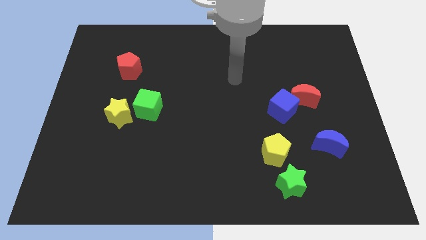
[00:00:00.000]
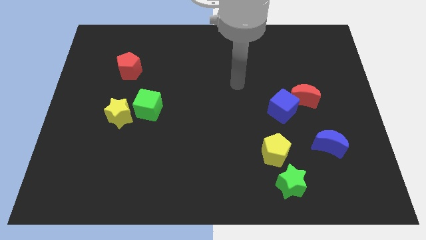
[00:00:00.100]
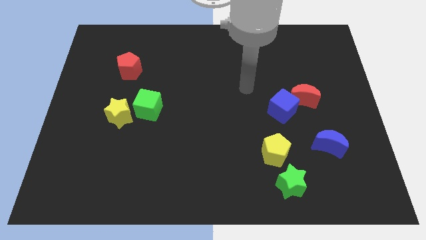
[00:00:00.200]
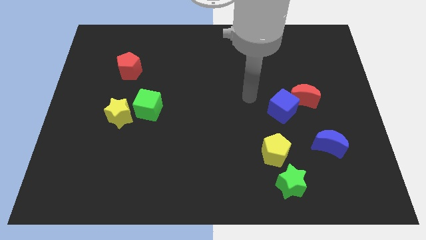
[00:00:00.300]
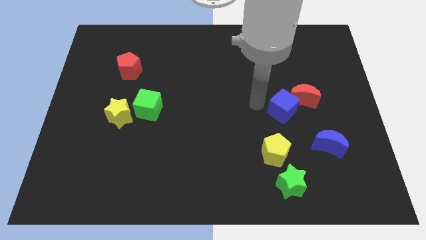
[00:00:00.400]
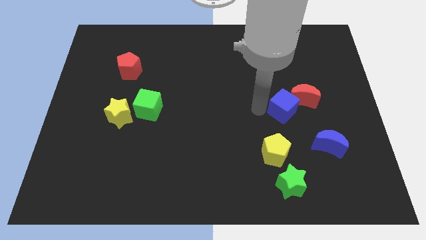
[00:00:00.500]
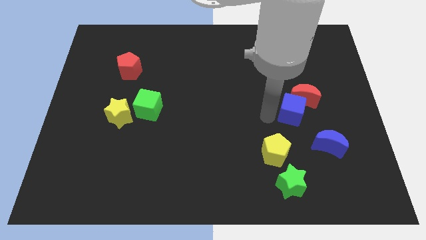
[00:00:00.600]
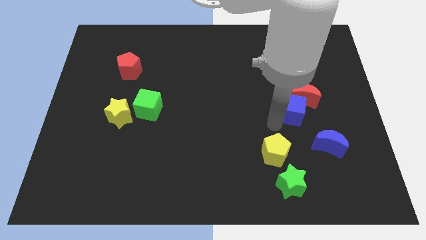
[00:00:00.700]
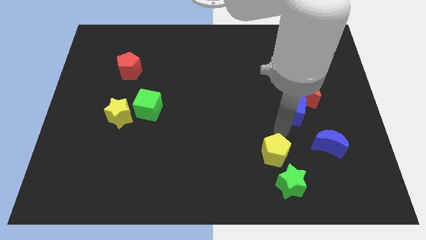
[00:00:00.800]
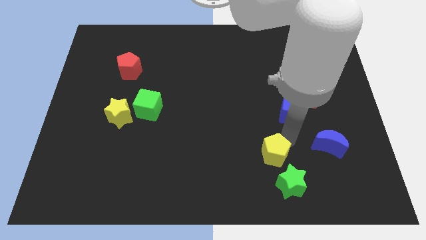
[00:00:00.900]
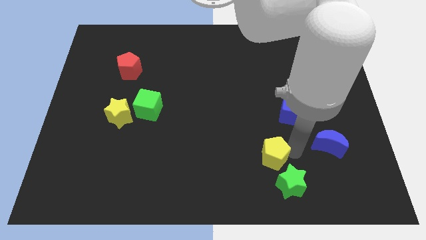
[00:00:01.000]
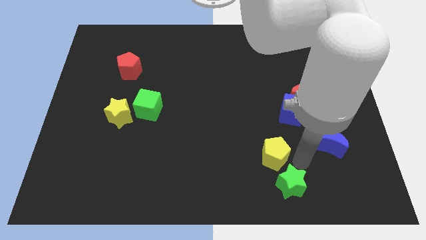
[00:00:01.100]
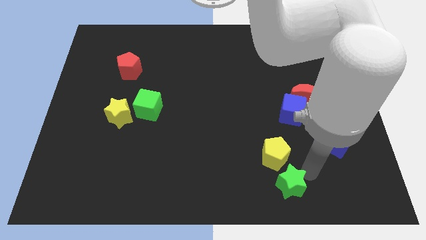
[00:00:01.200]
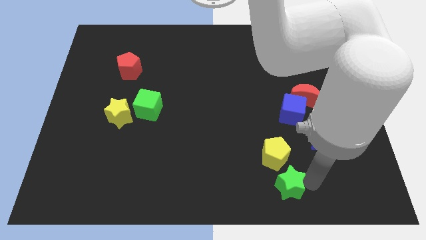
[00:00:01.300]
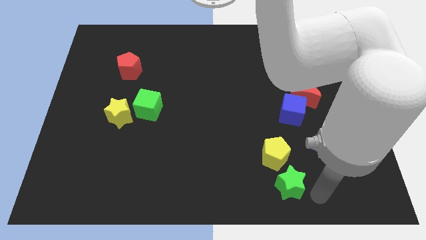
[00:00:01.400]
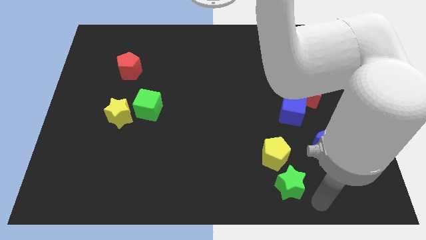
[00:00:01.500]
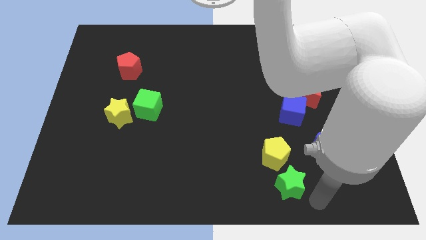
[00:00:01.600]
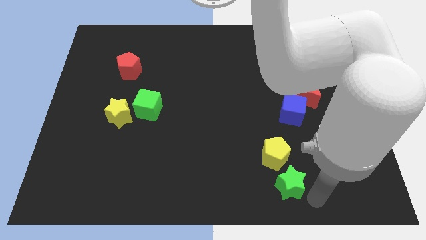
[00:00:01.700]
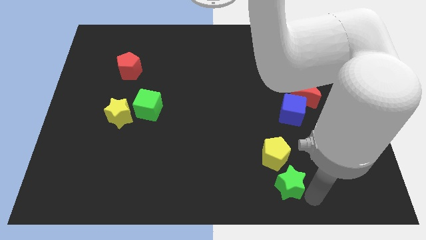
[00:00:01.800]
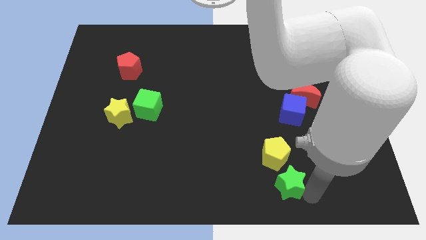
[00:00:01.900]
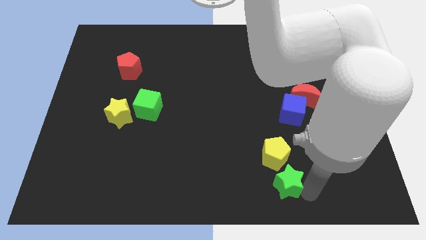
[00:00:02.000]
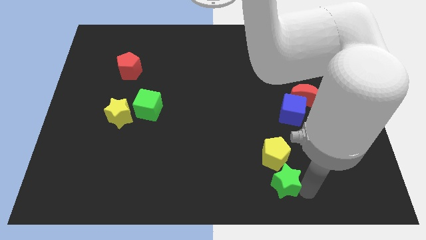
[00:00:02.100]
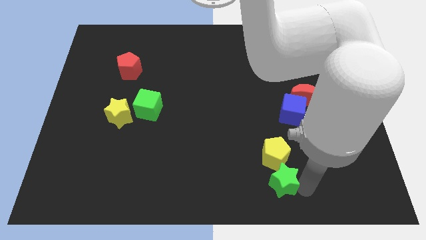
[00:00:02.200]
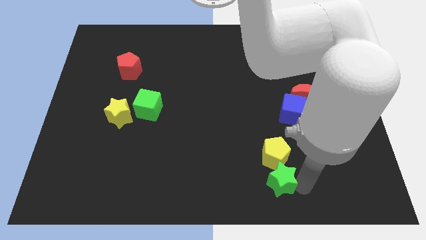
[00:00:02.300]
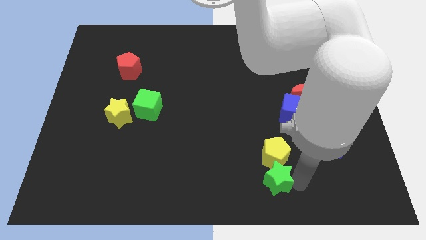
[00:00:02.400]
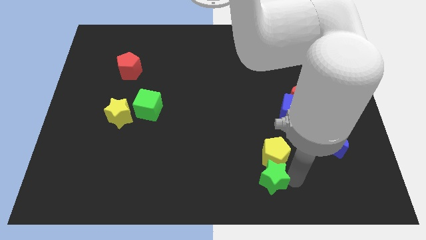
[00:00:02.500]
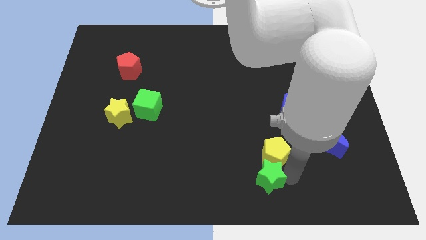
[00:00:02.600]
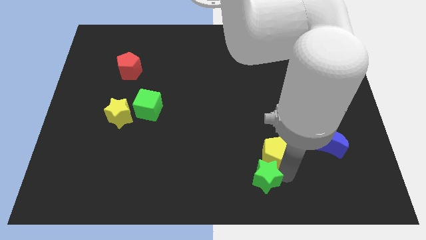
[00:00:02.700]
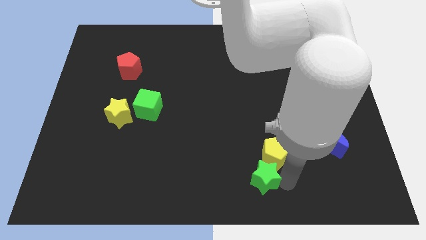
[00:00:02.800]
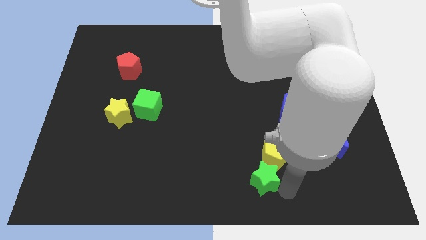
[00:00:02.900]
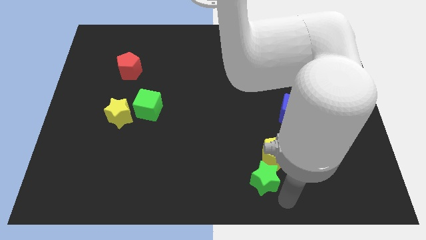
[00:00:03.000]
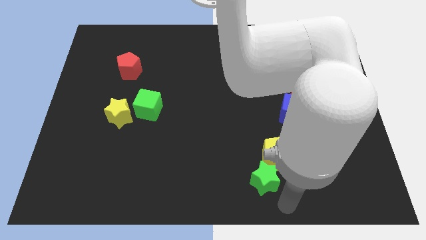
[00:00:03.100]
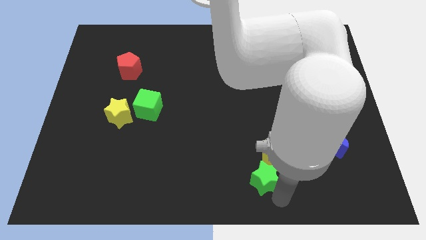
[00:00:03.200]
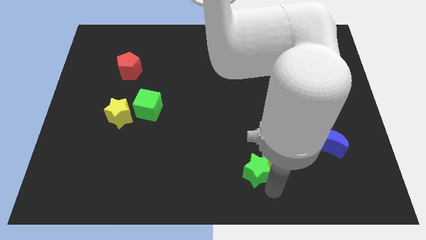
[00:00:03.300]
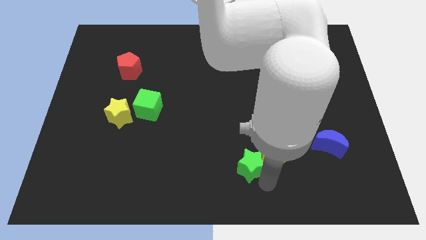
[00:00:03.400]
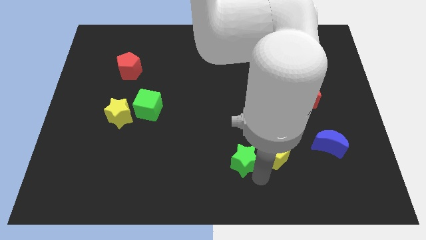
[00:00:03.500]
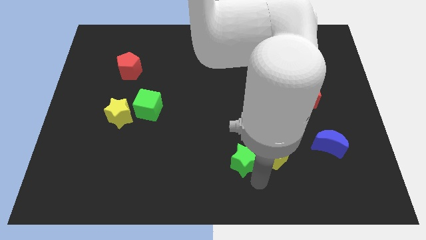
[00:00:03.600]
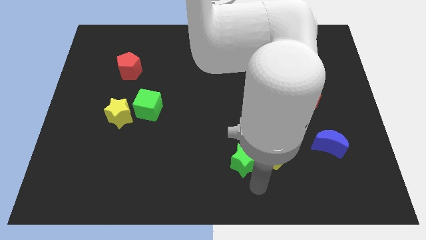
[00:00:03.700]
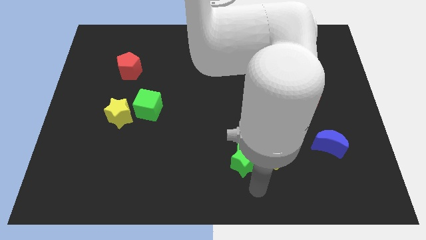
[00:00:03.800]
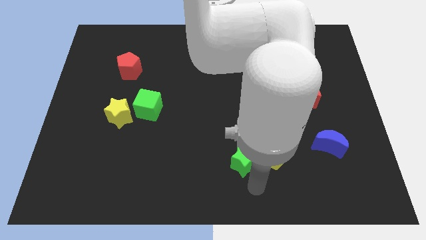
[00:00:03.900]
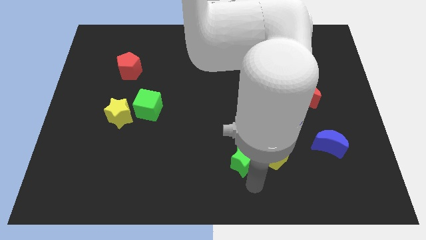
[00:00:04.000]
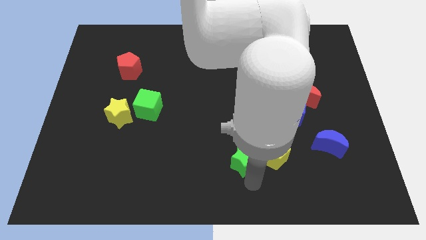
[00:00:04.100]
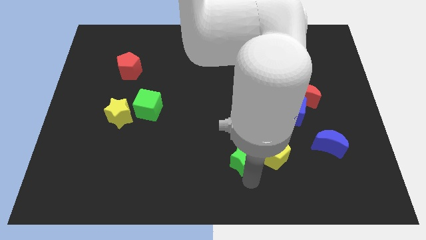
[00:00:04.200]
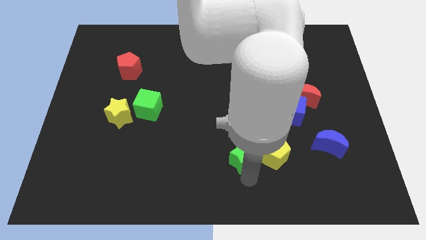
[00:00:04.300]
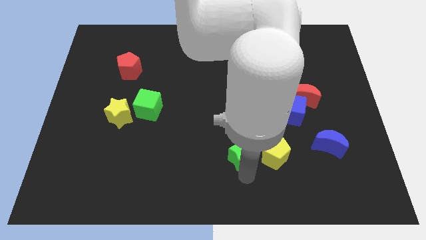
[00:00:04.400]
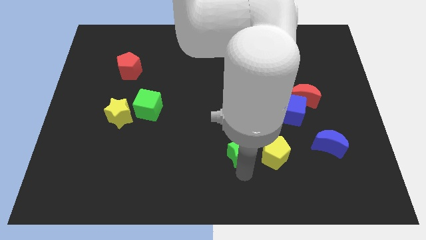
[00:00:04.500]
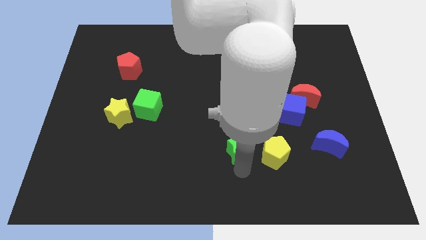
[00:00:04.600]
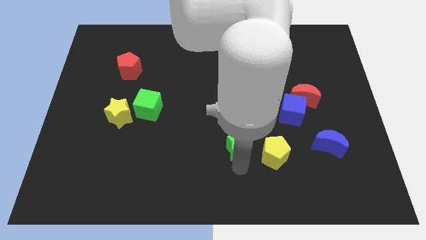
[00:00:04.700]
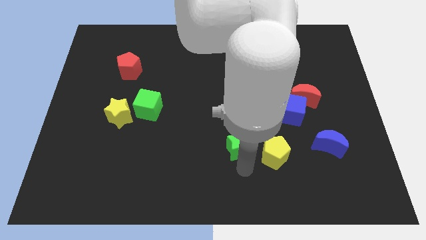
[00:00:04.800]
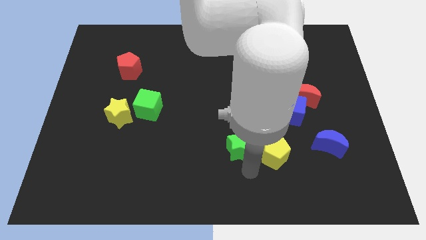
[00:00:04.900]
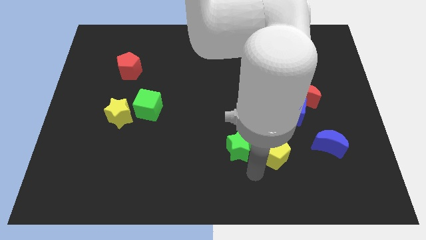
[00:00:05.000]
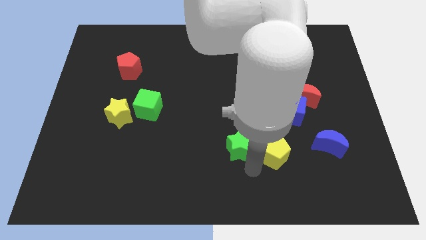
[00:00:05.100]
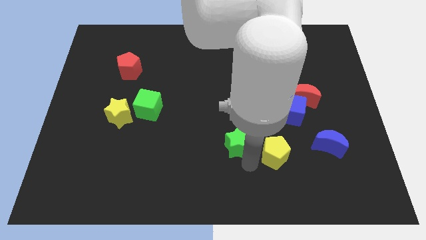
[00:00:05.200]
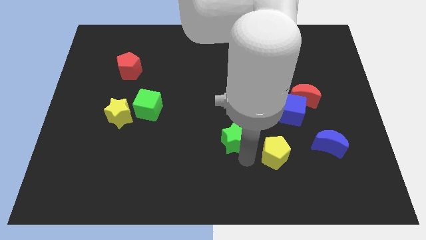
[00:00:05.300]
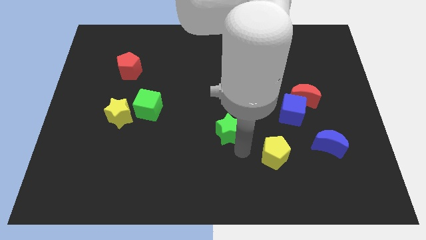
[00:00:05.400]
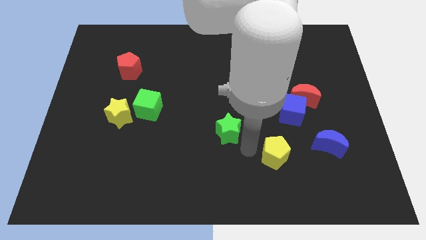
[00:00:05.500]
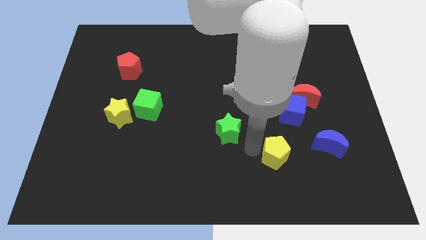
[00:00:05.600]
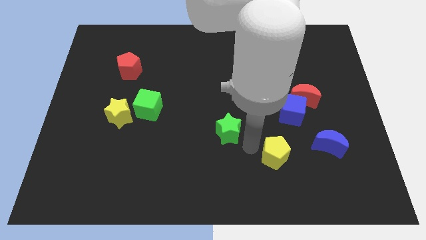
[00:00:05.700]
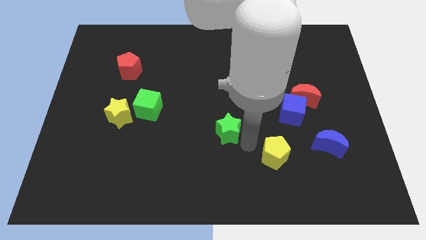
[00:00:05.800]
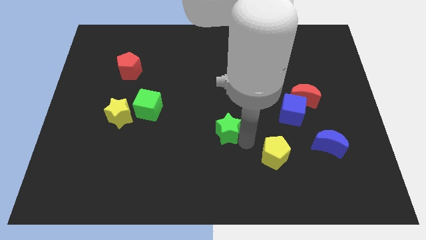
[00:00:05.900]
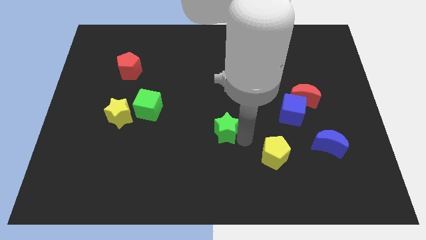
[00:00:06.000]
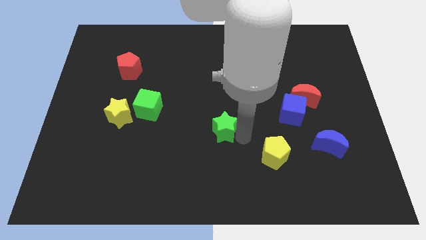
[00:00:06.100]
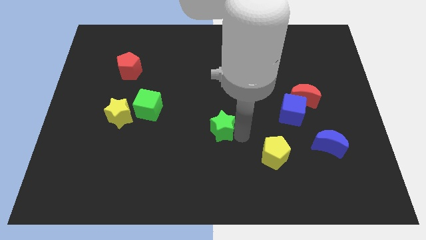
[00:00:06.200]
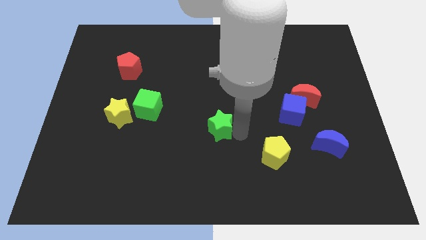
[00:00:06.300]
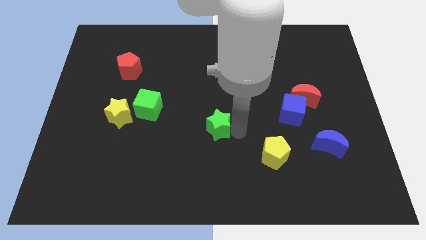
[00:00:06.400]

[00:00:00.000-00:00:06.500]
slide the green star diagonally upwards and to the left

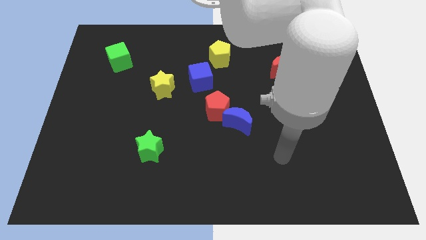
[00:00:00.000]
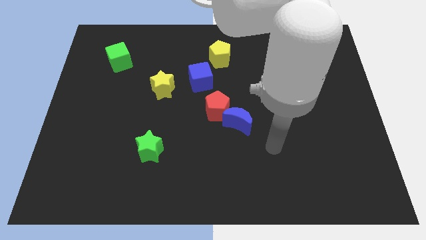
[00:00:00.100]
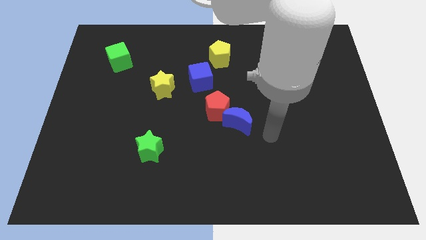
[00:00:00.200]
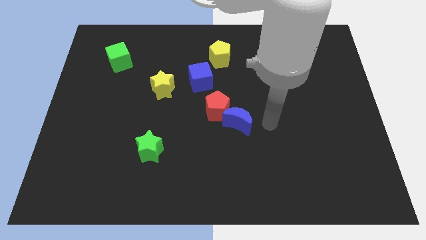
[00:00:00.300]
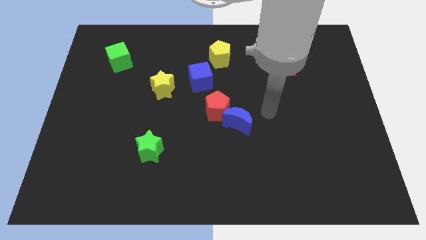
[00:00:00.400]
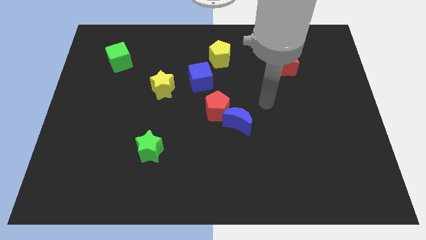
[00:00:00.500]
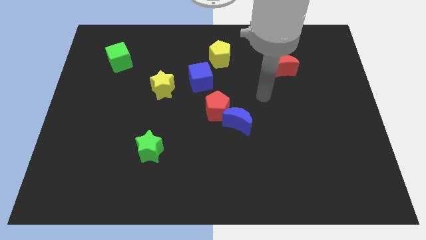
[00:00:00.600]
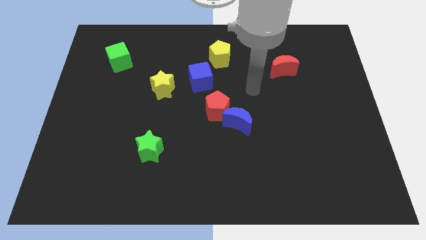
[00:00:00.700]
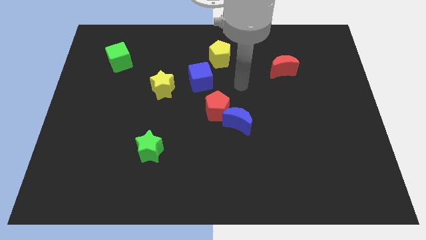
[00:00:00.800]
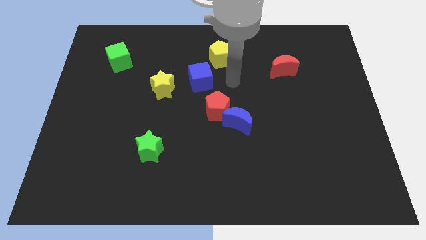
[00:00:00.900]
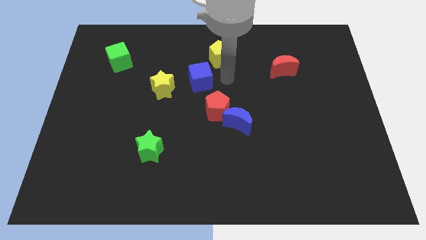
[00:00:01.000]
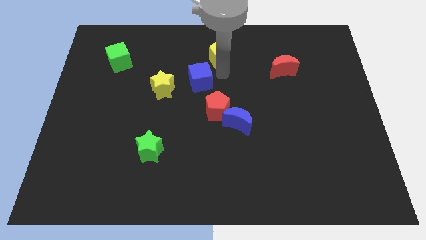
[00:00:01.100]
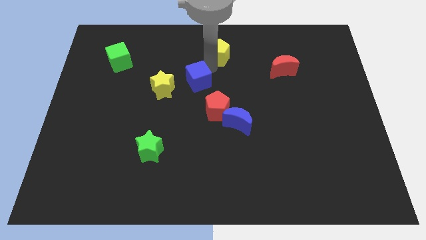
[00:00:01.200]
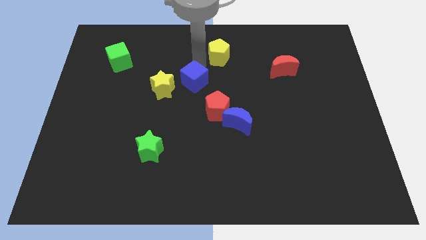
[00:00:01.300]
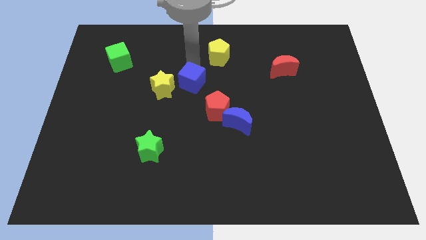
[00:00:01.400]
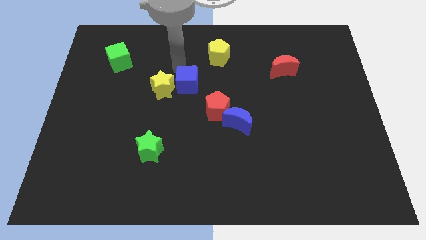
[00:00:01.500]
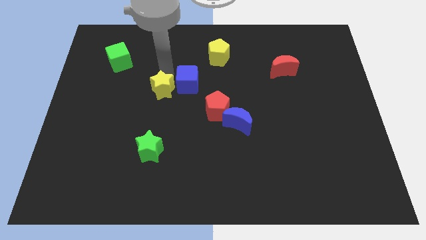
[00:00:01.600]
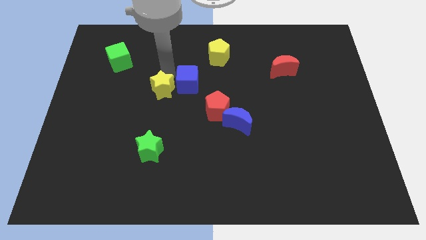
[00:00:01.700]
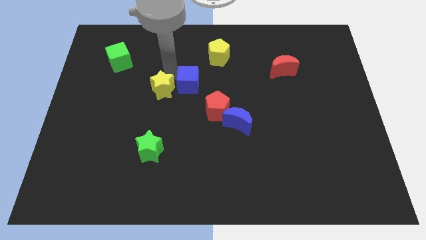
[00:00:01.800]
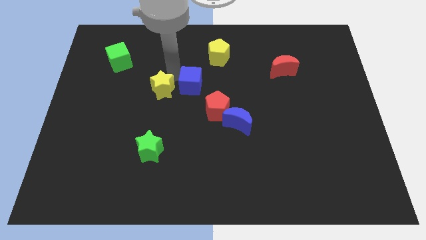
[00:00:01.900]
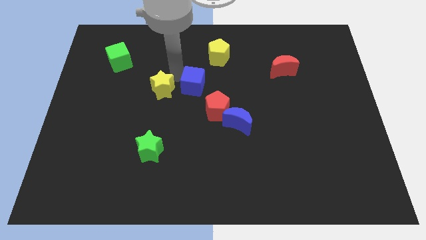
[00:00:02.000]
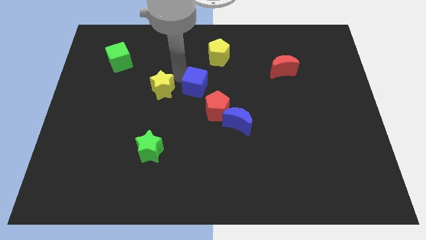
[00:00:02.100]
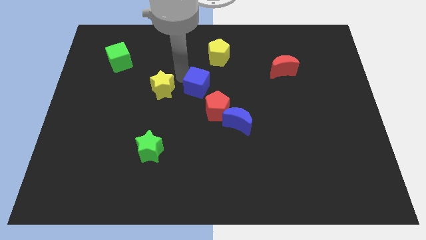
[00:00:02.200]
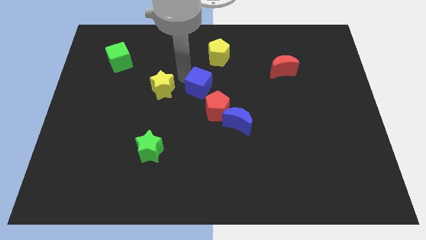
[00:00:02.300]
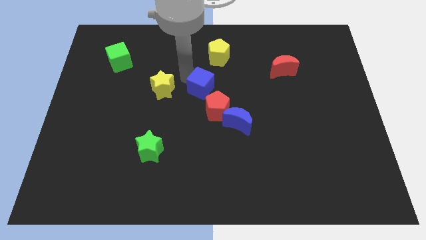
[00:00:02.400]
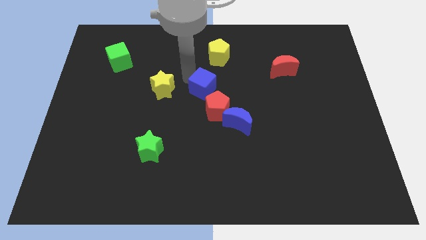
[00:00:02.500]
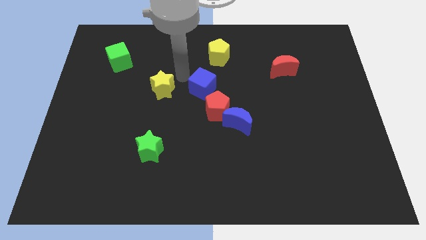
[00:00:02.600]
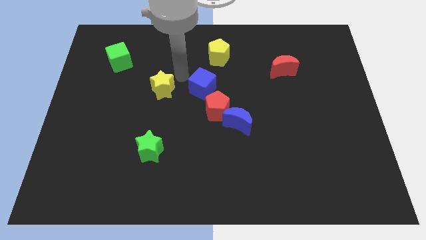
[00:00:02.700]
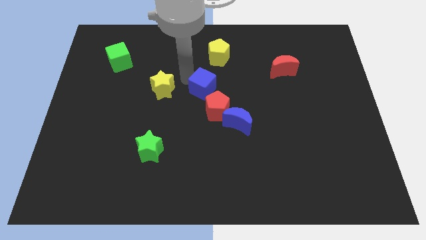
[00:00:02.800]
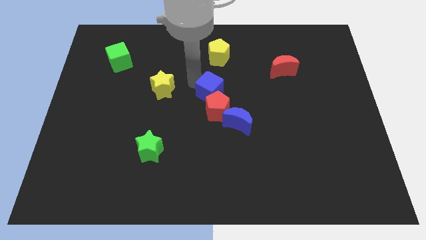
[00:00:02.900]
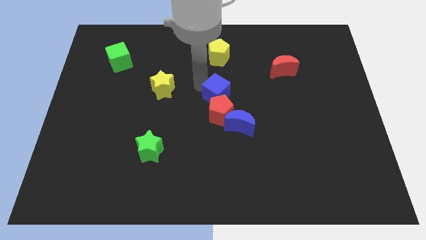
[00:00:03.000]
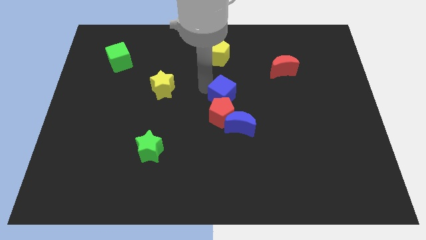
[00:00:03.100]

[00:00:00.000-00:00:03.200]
slightly push the blue cube diagonally down and to the right
